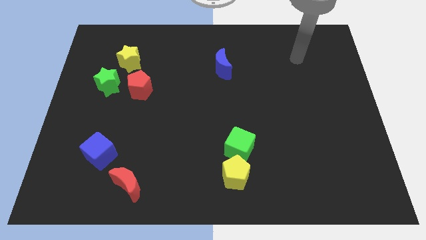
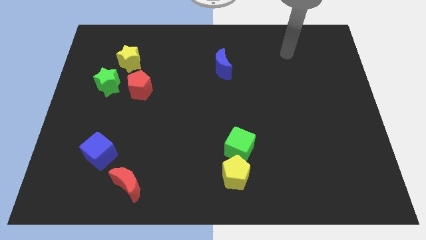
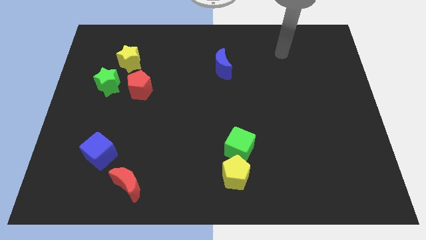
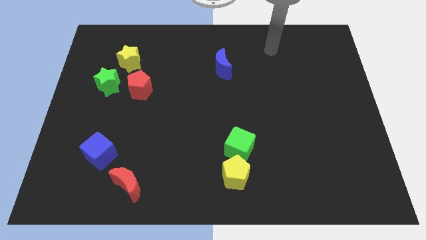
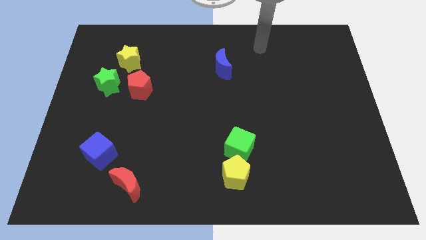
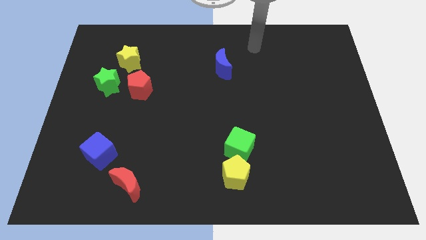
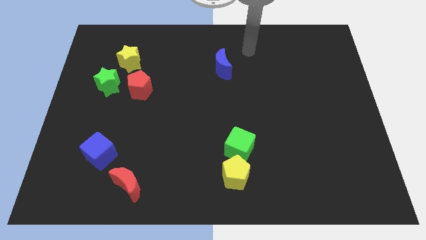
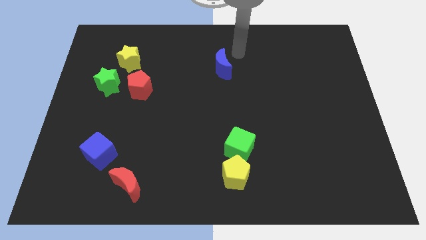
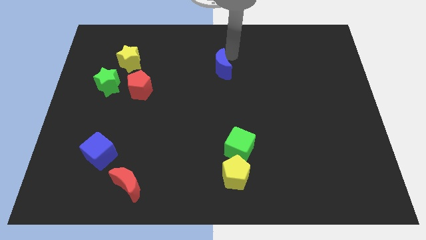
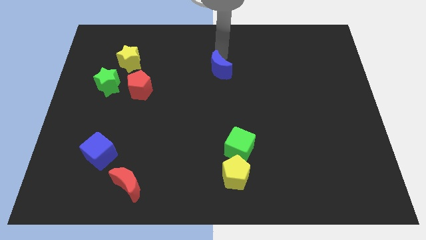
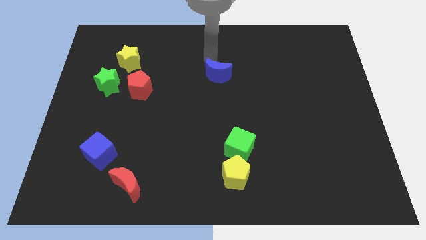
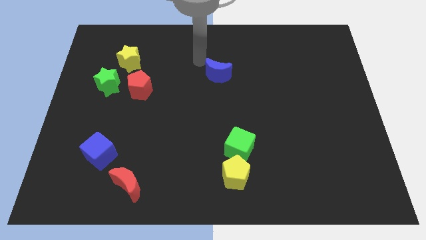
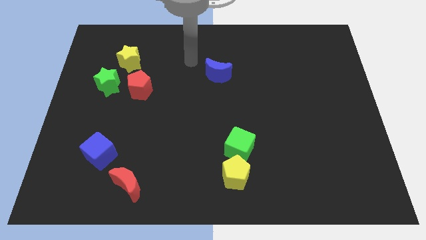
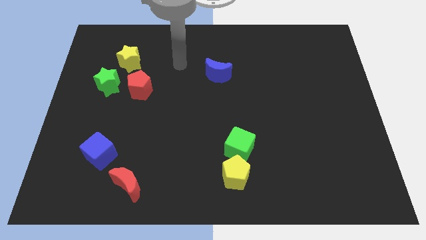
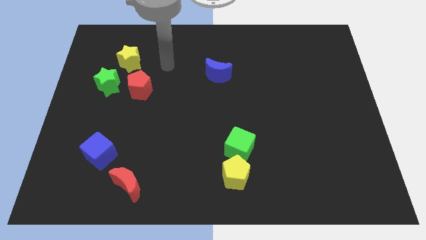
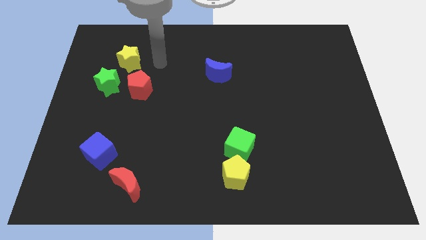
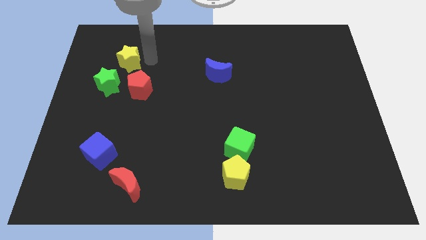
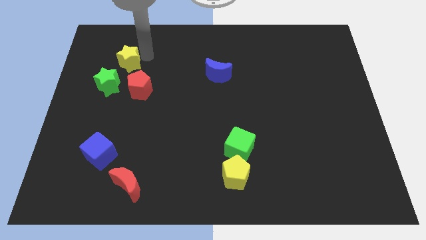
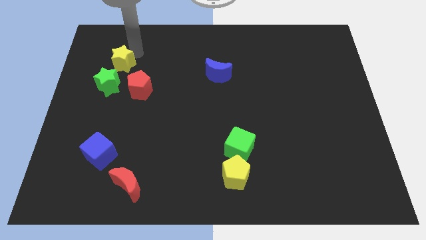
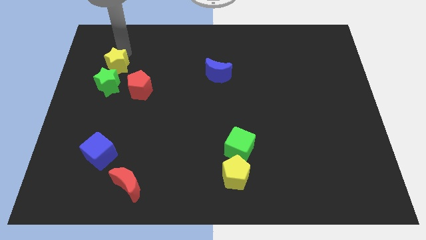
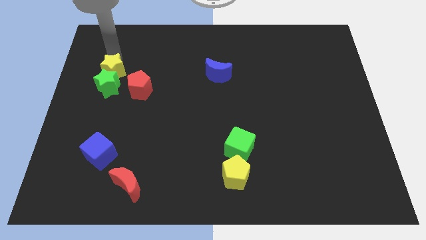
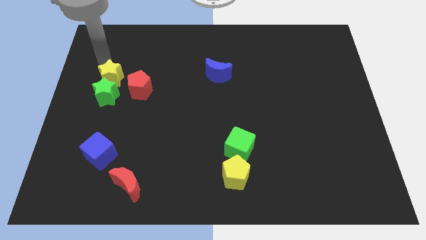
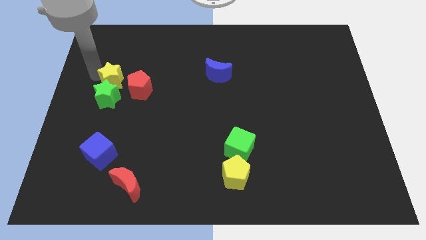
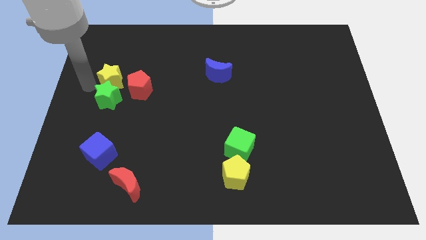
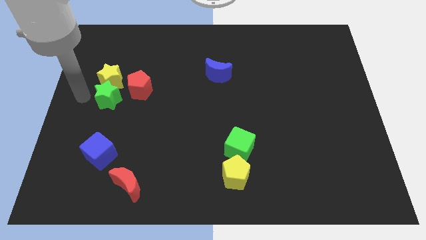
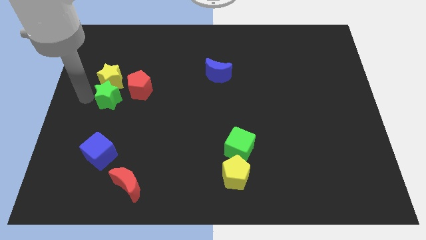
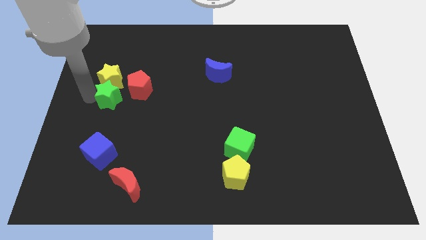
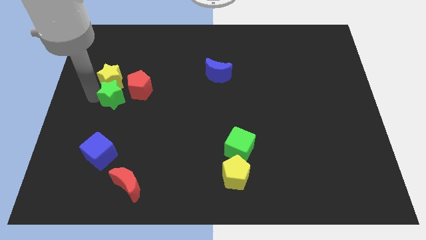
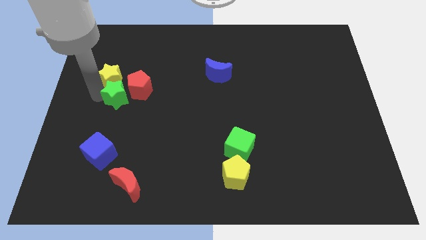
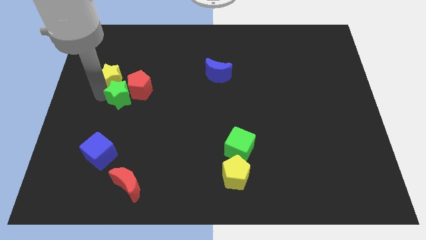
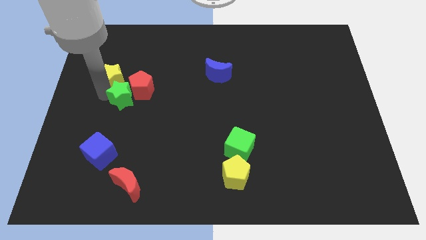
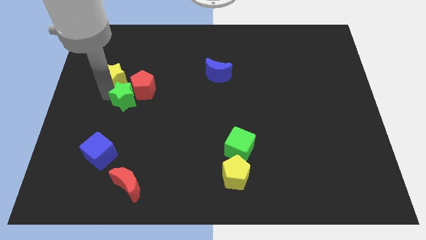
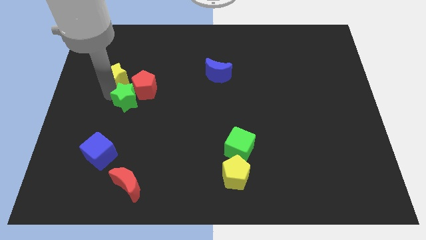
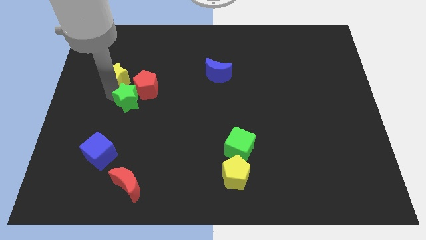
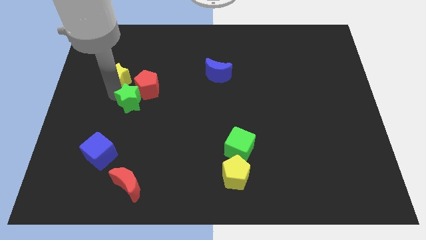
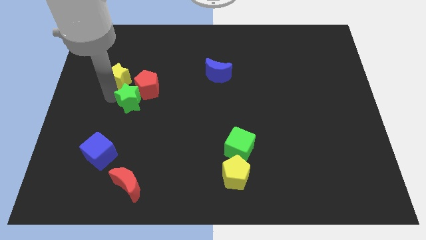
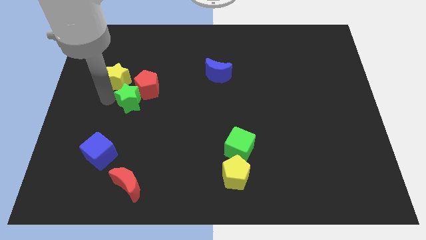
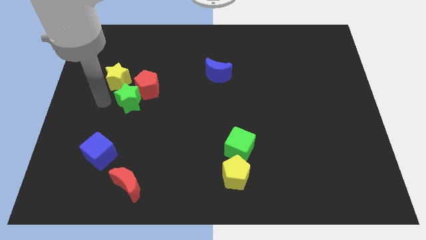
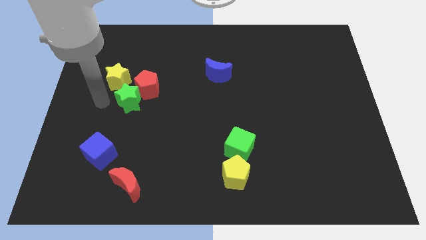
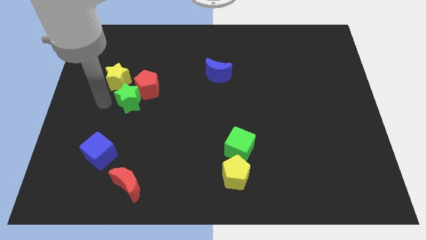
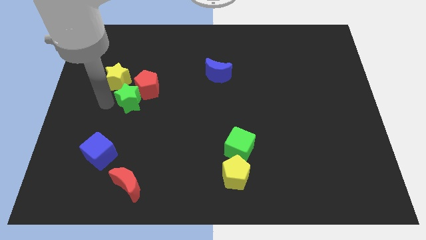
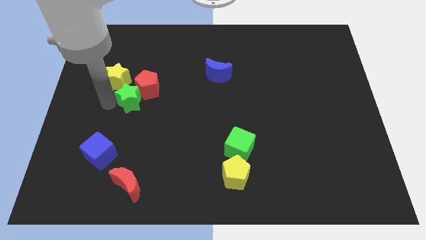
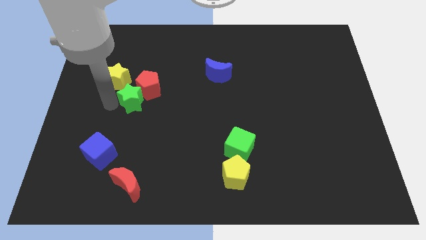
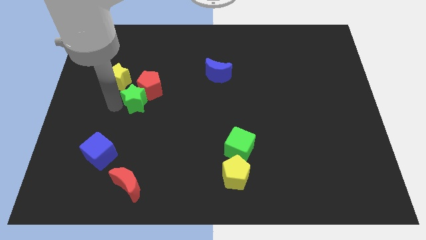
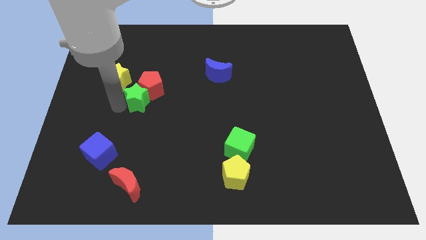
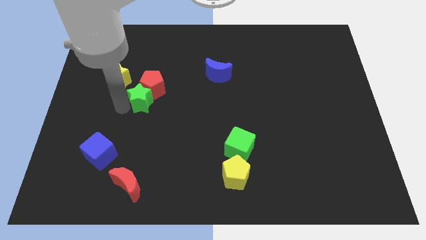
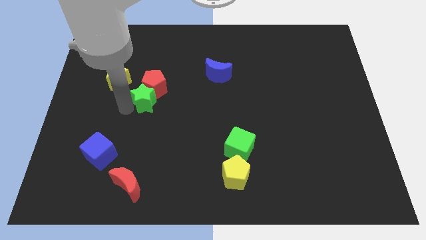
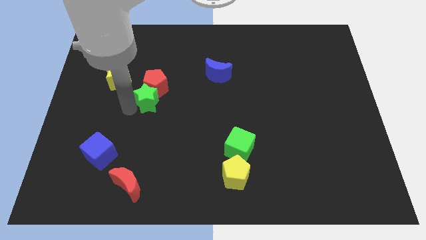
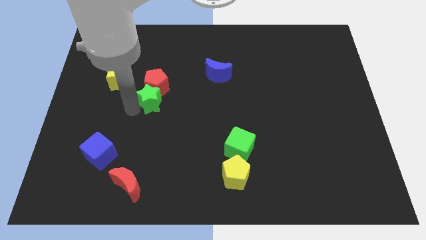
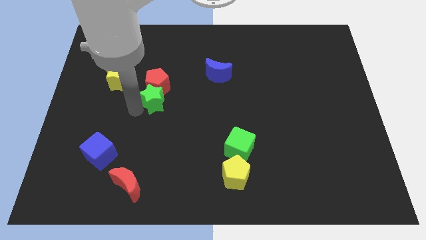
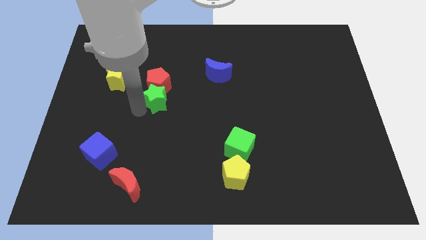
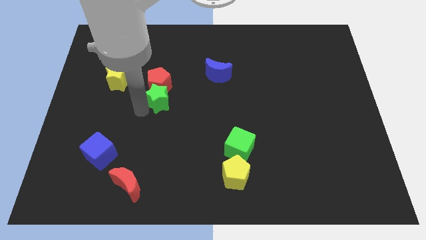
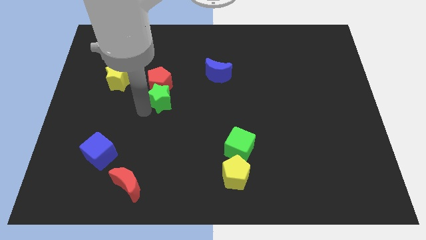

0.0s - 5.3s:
put the green star to the center of the board
